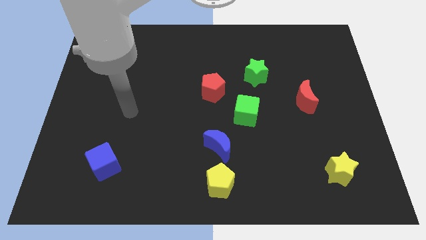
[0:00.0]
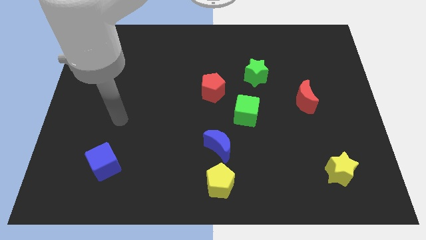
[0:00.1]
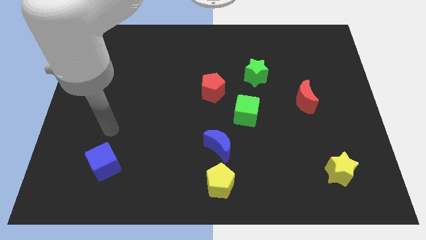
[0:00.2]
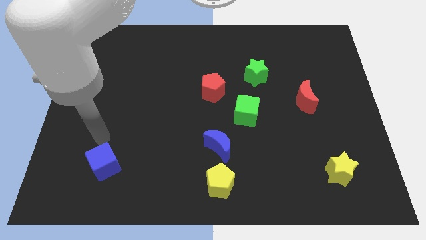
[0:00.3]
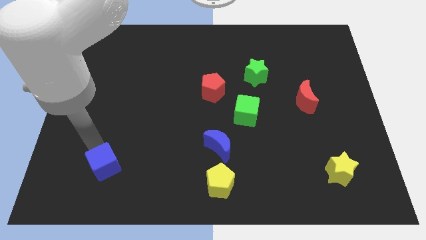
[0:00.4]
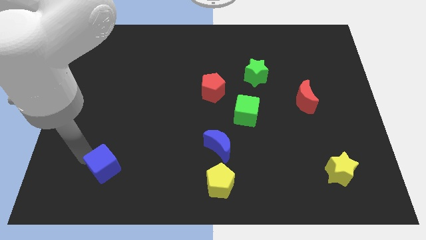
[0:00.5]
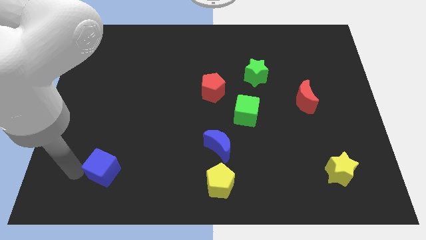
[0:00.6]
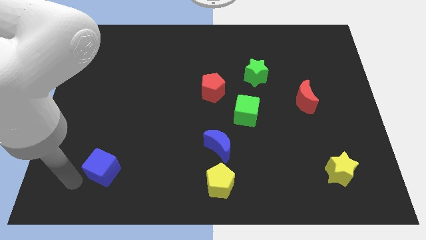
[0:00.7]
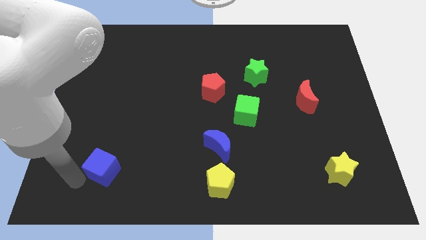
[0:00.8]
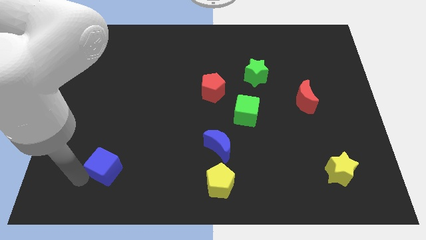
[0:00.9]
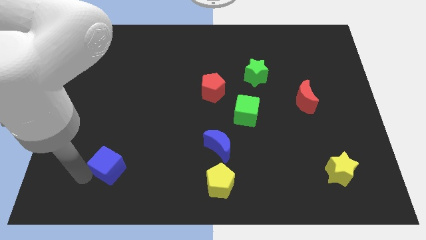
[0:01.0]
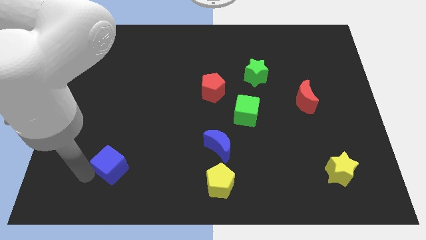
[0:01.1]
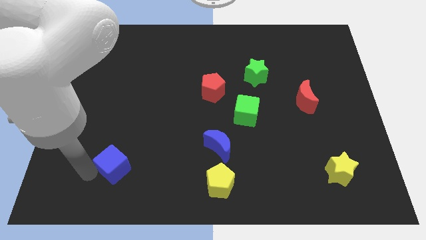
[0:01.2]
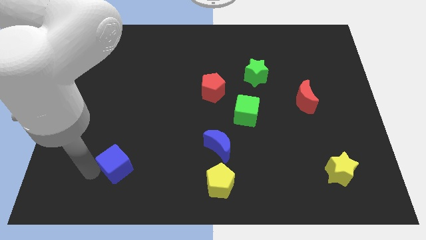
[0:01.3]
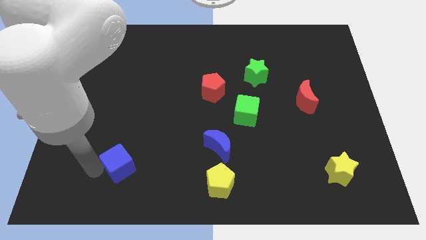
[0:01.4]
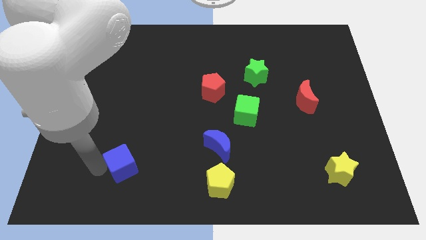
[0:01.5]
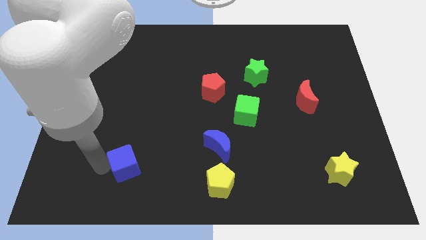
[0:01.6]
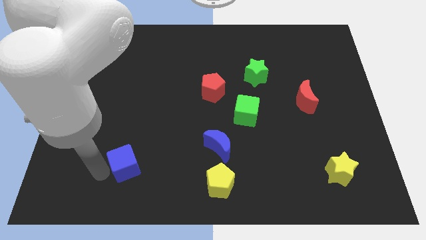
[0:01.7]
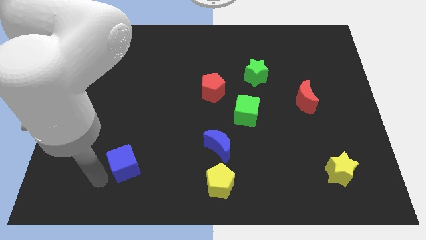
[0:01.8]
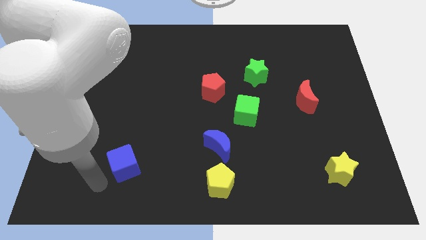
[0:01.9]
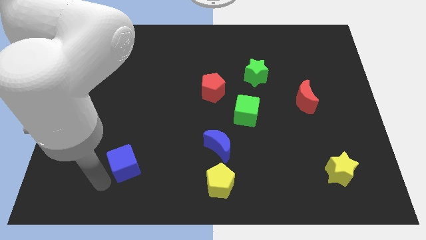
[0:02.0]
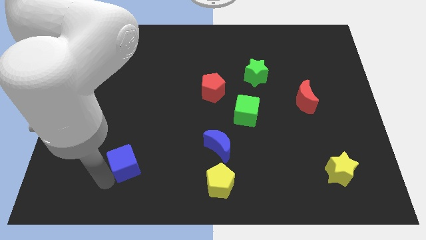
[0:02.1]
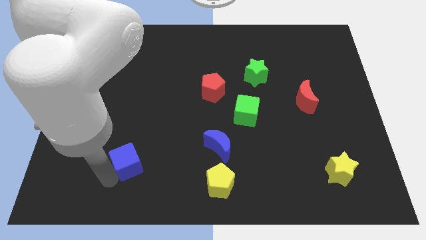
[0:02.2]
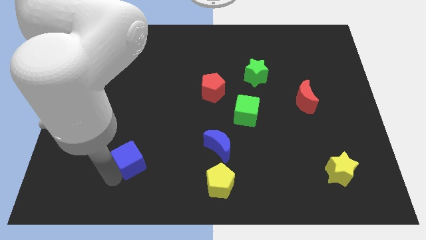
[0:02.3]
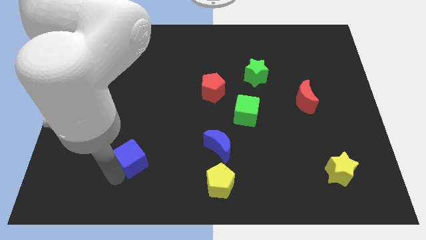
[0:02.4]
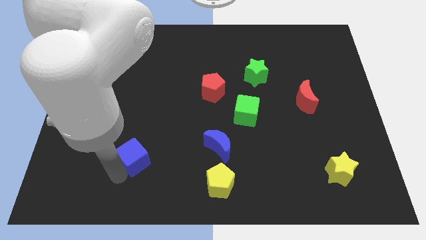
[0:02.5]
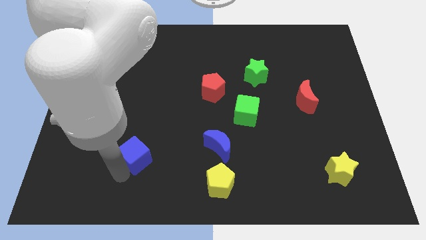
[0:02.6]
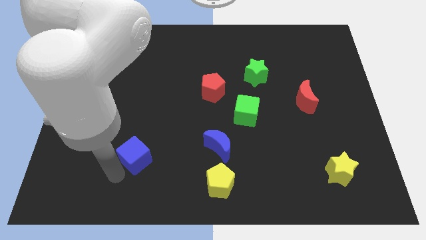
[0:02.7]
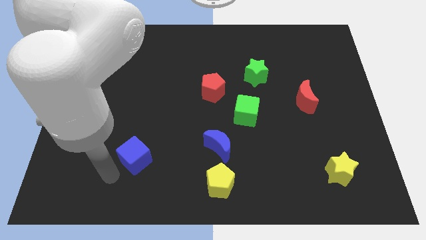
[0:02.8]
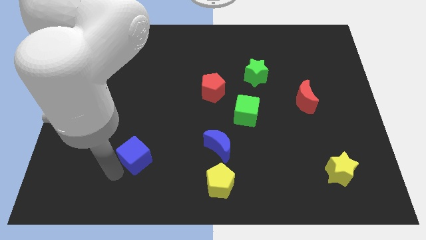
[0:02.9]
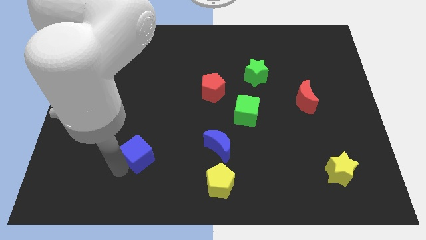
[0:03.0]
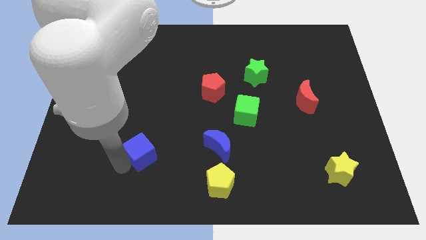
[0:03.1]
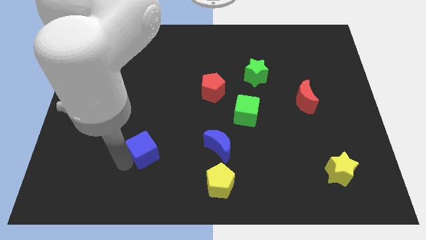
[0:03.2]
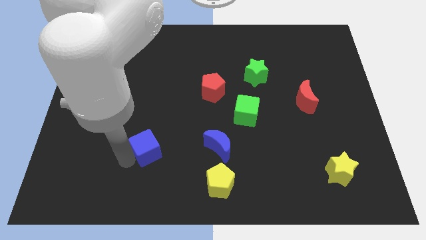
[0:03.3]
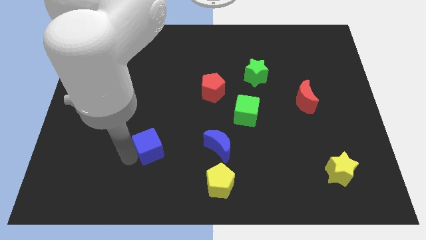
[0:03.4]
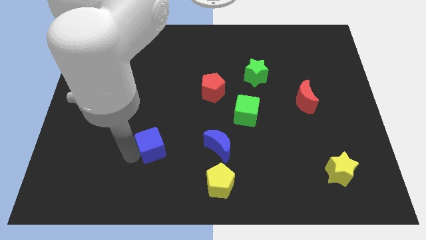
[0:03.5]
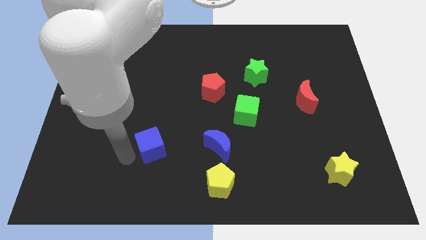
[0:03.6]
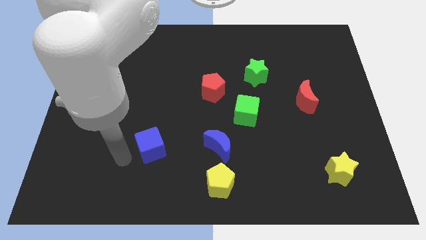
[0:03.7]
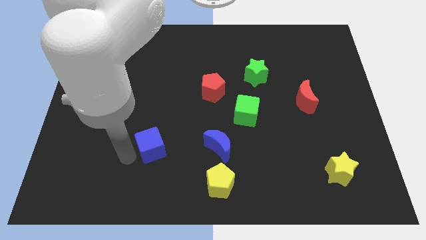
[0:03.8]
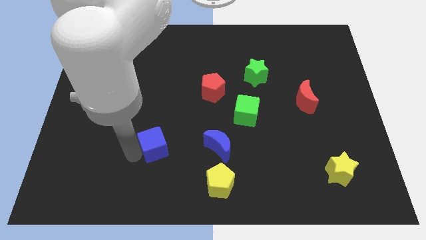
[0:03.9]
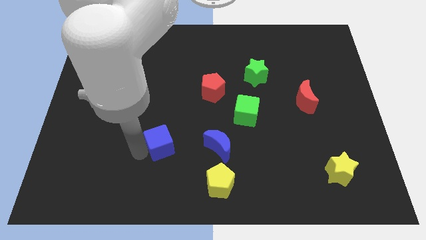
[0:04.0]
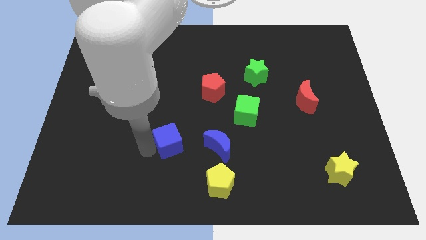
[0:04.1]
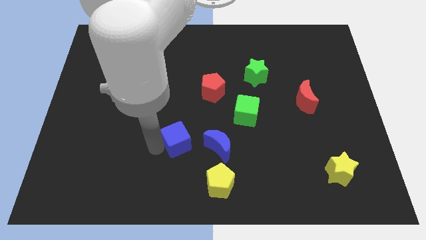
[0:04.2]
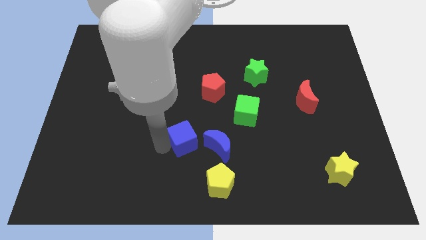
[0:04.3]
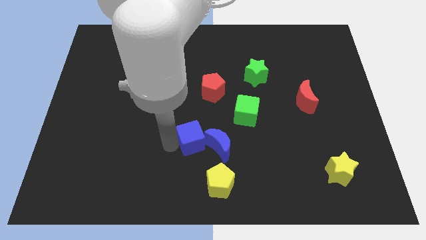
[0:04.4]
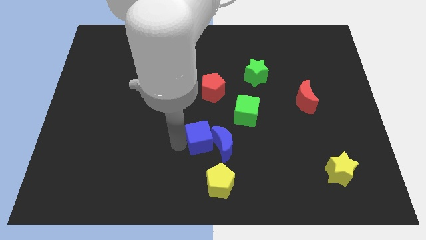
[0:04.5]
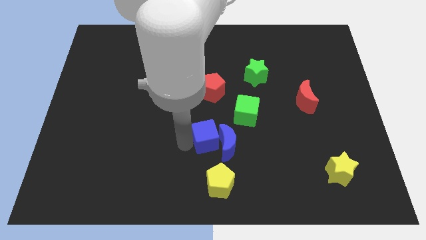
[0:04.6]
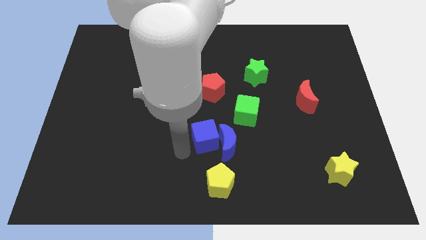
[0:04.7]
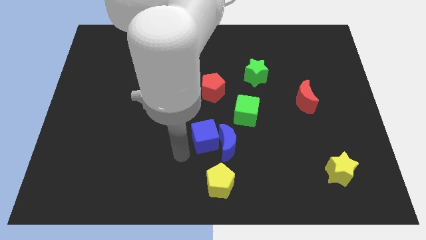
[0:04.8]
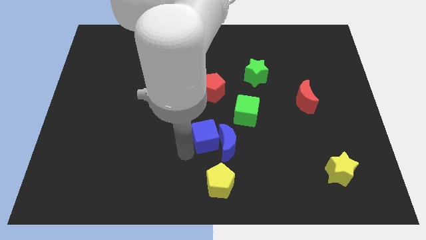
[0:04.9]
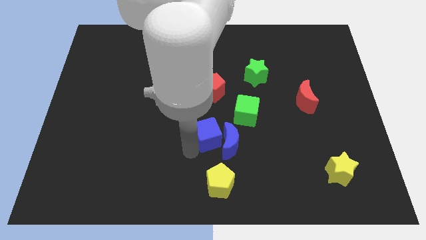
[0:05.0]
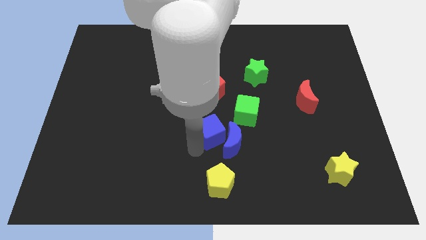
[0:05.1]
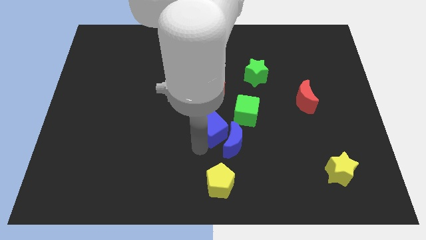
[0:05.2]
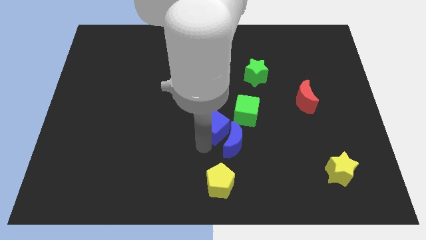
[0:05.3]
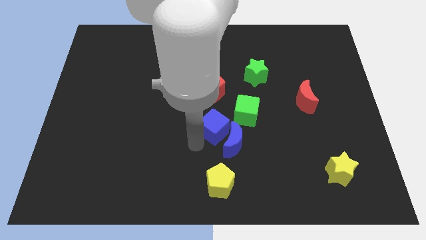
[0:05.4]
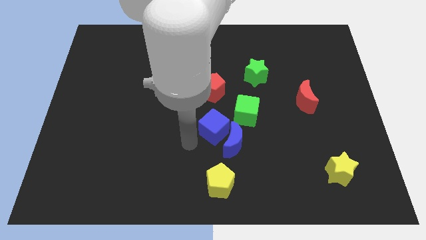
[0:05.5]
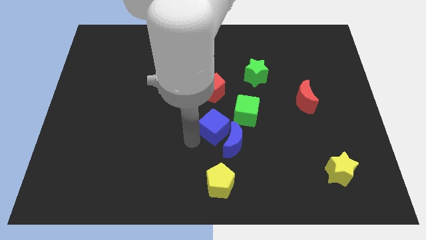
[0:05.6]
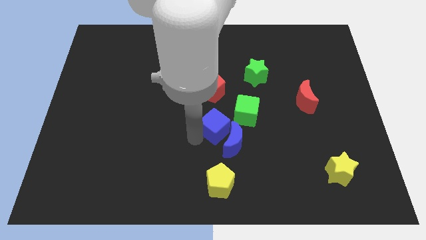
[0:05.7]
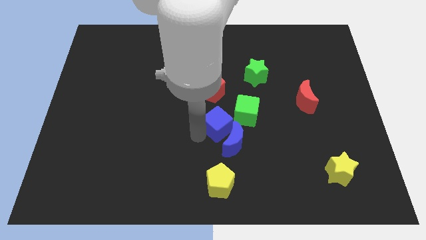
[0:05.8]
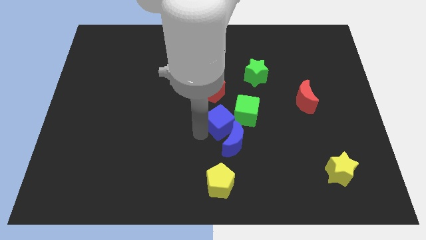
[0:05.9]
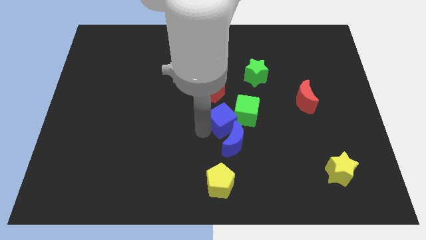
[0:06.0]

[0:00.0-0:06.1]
push the blue cube to the green cube

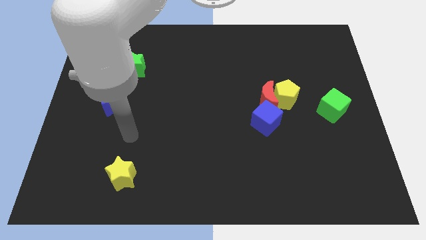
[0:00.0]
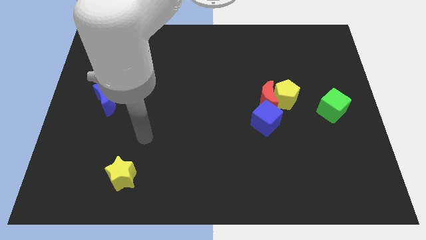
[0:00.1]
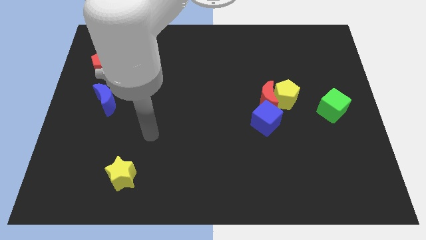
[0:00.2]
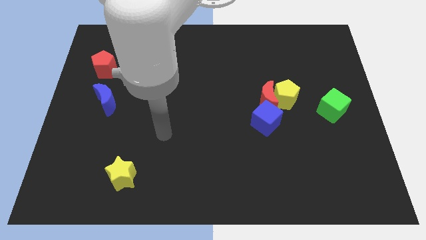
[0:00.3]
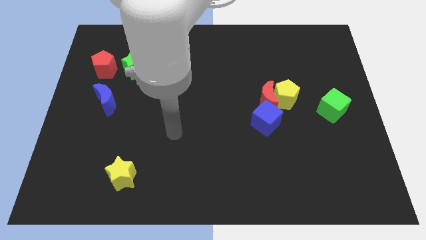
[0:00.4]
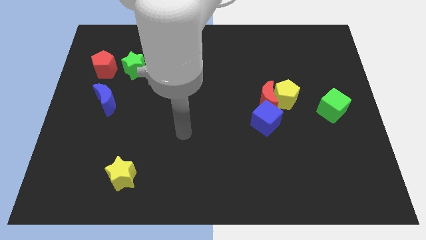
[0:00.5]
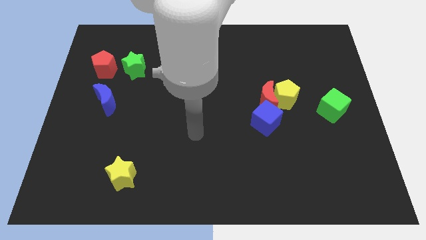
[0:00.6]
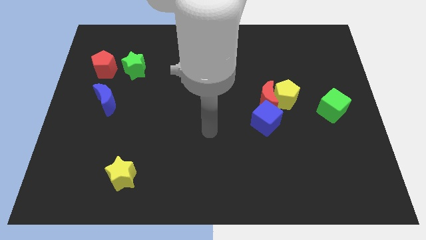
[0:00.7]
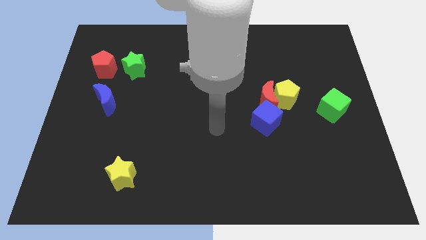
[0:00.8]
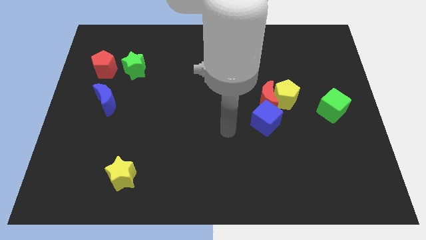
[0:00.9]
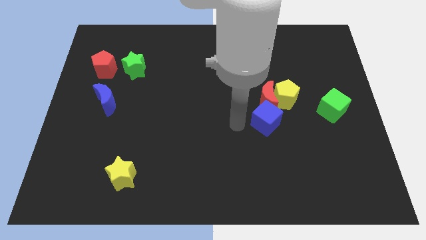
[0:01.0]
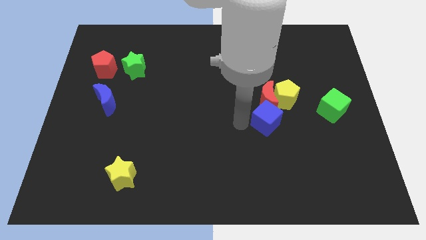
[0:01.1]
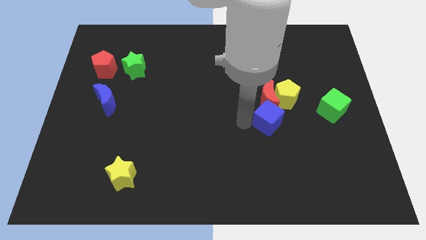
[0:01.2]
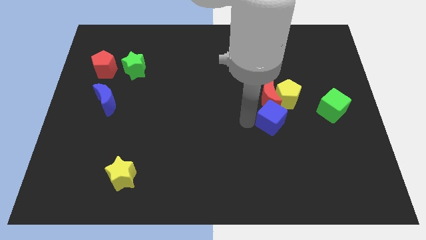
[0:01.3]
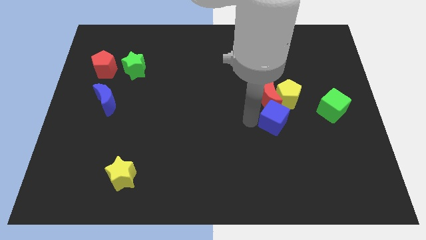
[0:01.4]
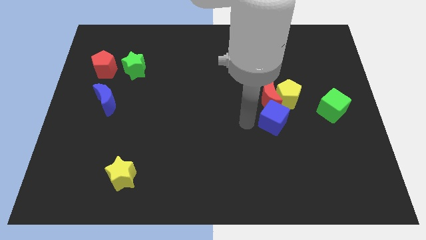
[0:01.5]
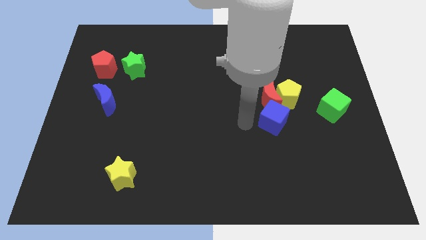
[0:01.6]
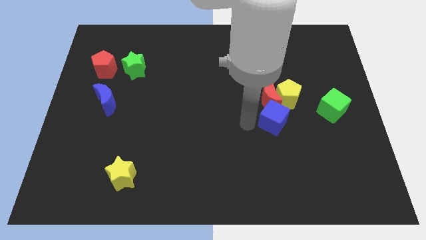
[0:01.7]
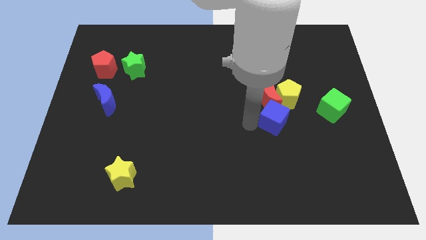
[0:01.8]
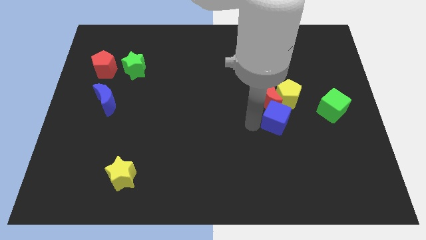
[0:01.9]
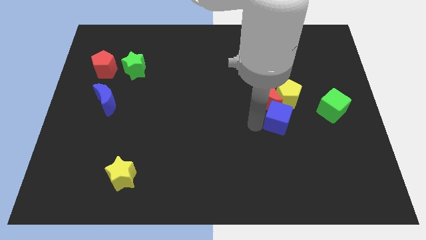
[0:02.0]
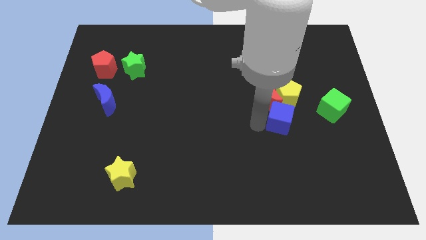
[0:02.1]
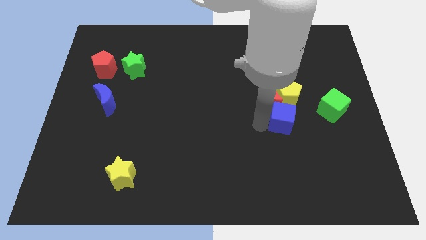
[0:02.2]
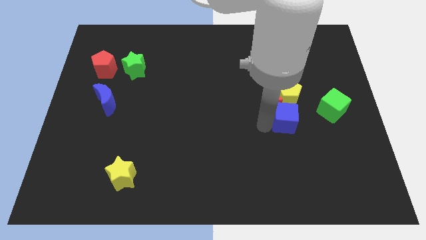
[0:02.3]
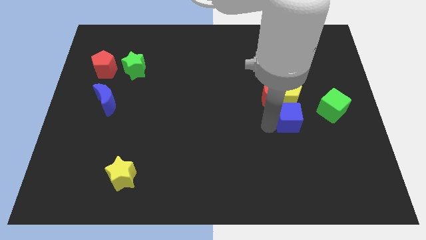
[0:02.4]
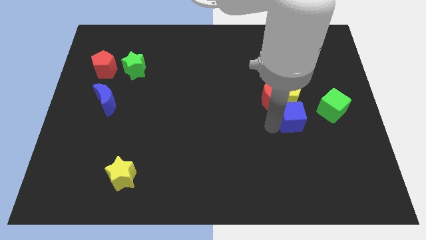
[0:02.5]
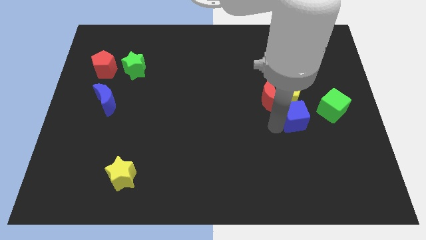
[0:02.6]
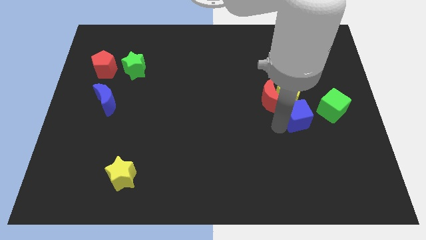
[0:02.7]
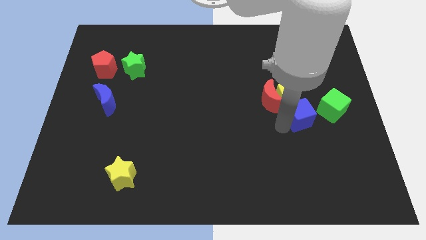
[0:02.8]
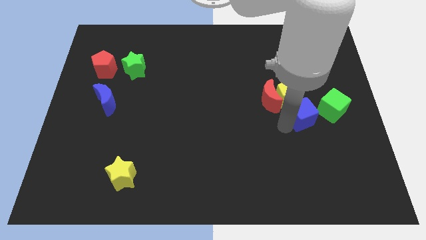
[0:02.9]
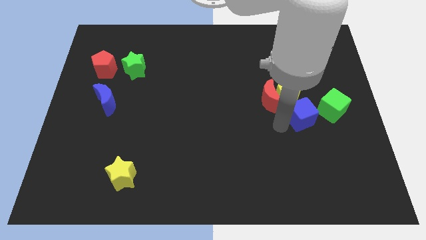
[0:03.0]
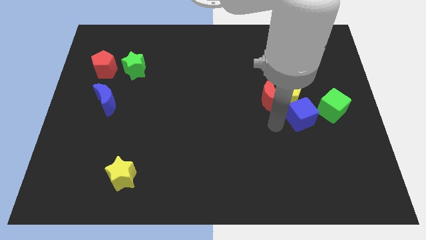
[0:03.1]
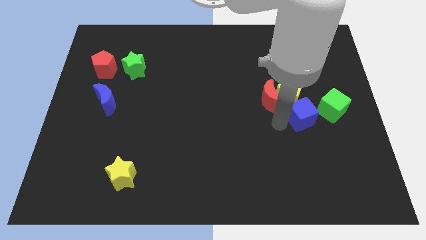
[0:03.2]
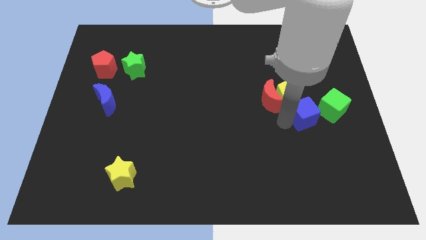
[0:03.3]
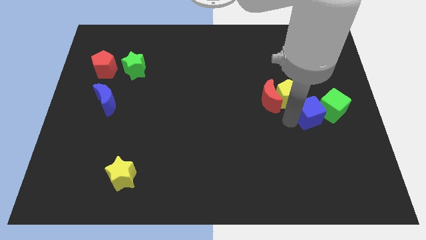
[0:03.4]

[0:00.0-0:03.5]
move the blue cube to the green cube
